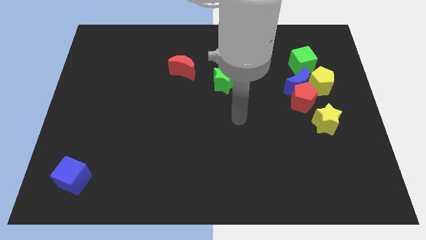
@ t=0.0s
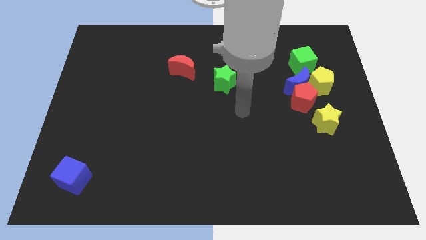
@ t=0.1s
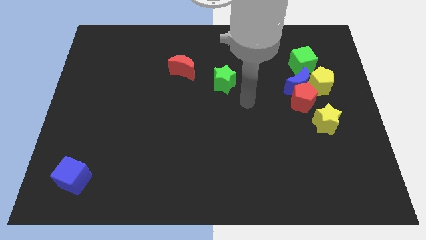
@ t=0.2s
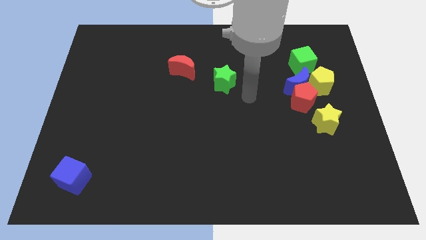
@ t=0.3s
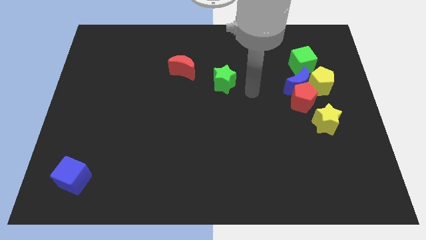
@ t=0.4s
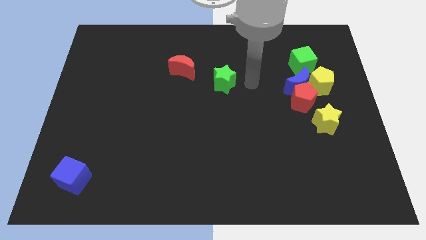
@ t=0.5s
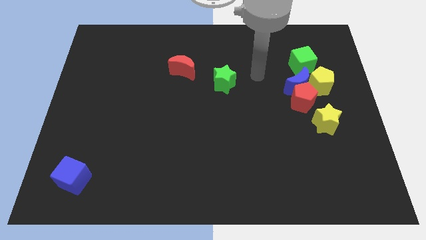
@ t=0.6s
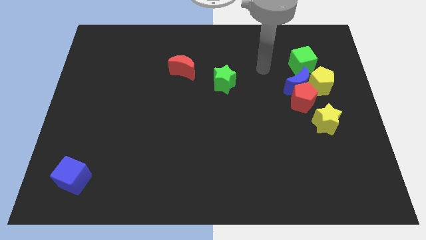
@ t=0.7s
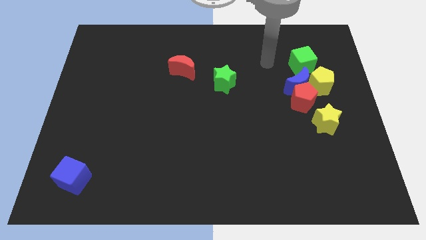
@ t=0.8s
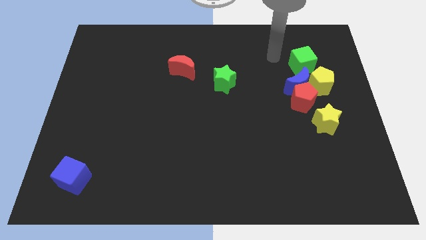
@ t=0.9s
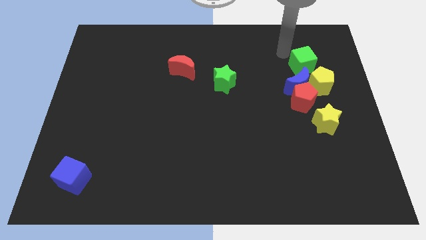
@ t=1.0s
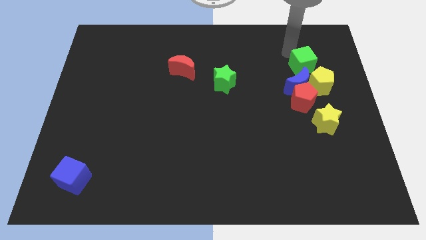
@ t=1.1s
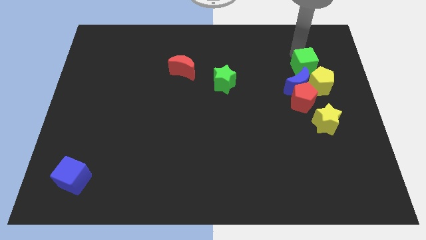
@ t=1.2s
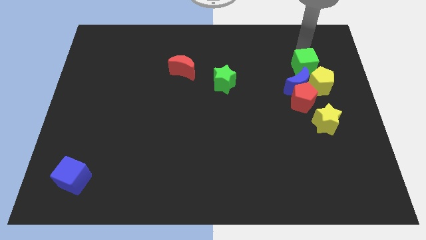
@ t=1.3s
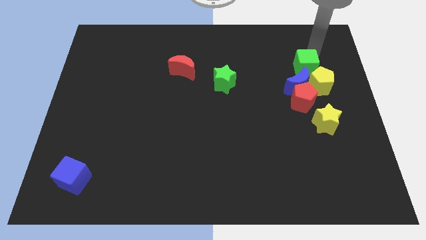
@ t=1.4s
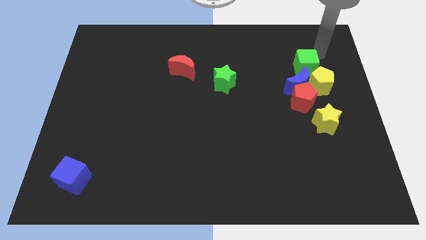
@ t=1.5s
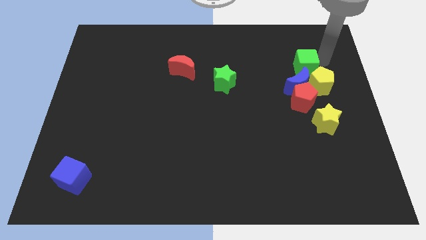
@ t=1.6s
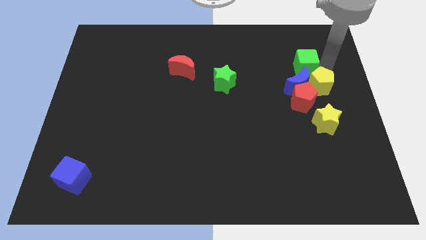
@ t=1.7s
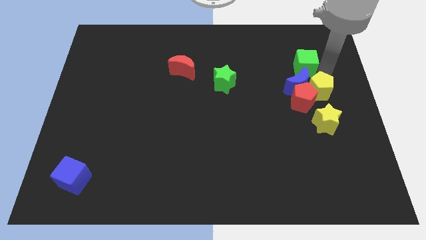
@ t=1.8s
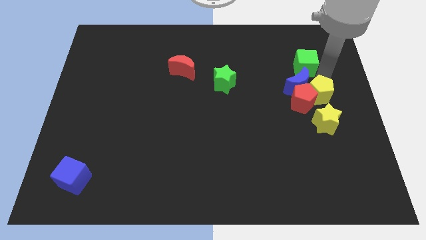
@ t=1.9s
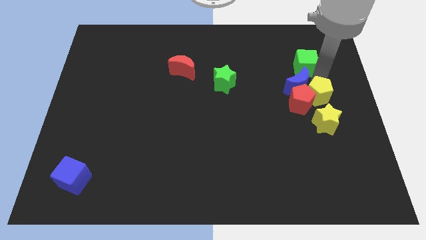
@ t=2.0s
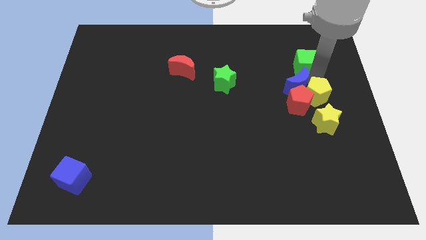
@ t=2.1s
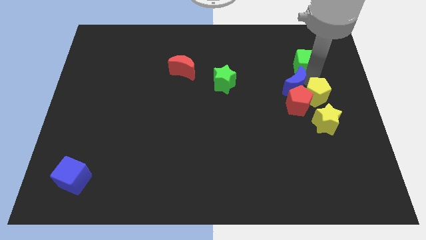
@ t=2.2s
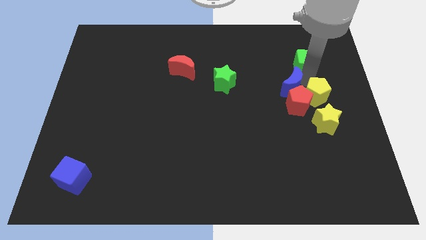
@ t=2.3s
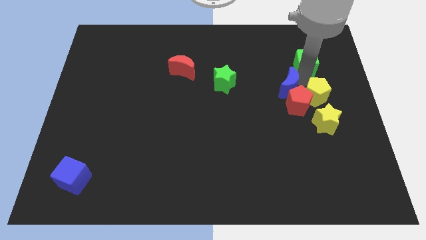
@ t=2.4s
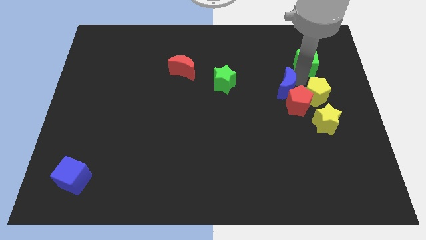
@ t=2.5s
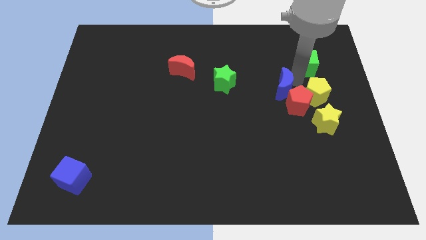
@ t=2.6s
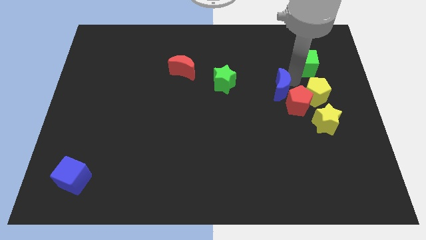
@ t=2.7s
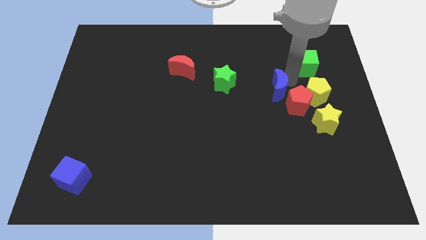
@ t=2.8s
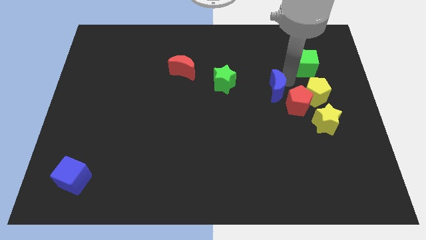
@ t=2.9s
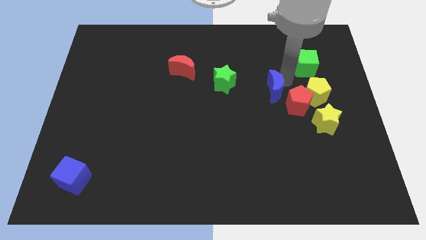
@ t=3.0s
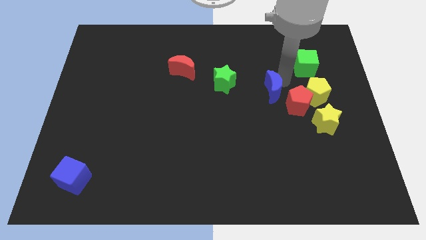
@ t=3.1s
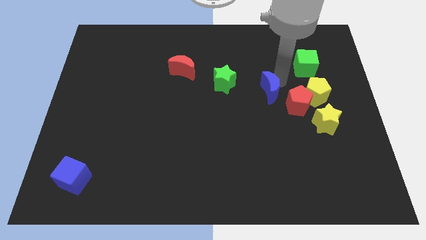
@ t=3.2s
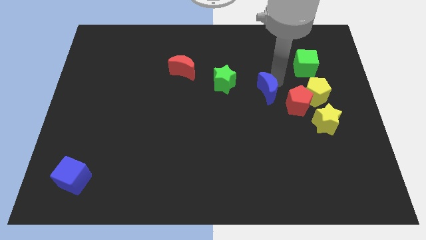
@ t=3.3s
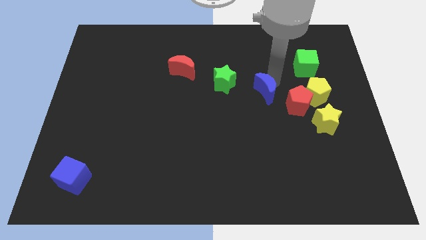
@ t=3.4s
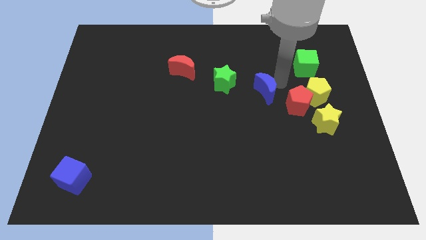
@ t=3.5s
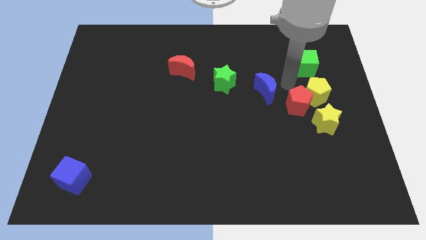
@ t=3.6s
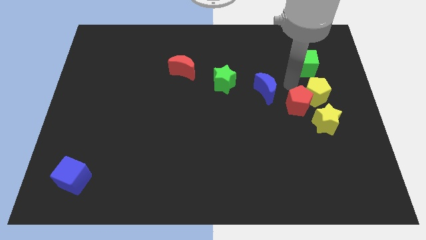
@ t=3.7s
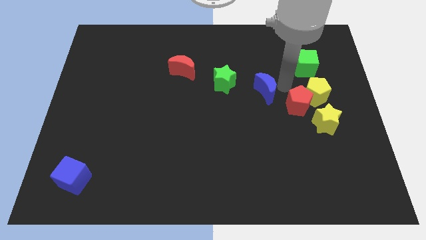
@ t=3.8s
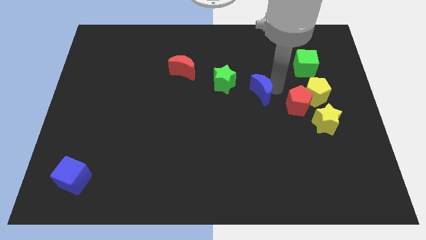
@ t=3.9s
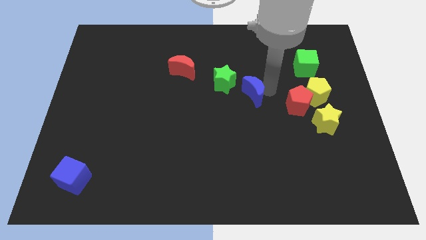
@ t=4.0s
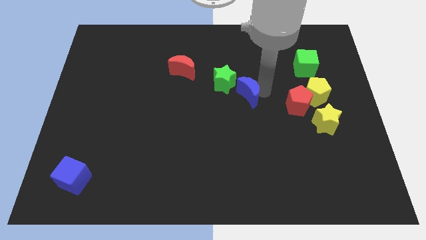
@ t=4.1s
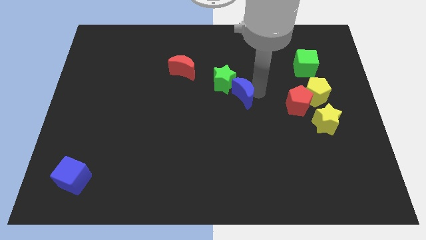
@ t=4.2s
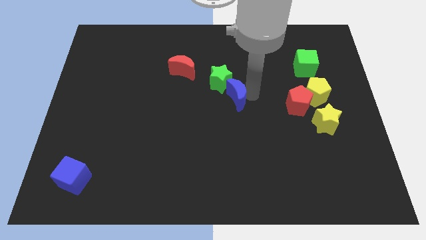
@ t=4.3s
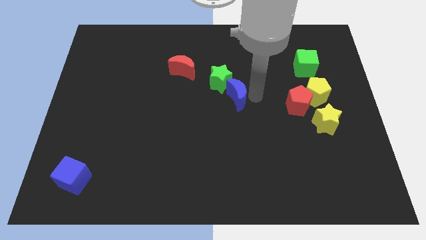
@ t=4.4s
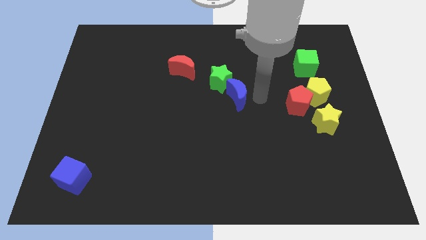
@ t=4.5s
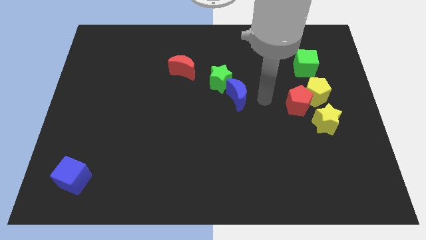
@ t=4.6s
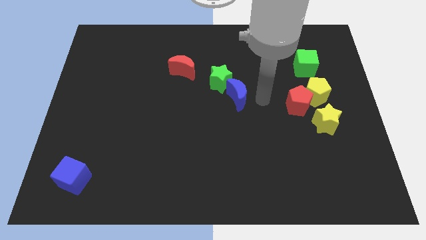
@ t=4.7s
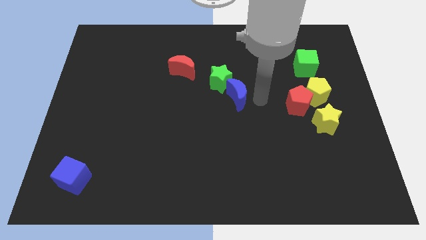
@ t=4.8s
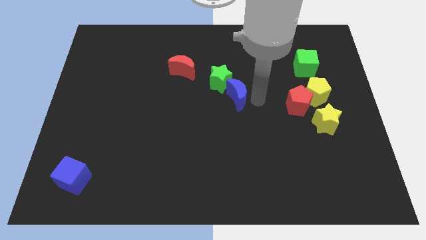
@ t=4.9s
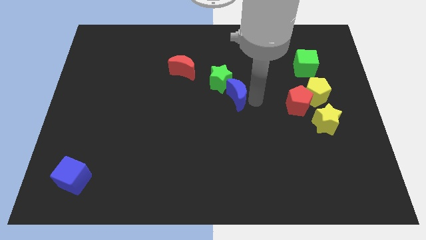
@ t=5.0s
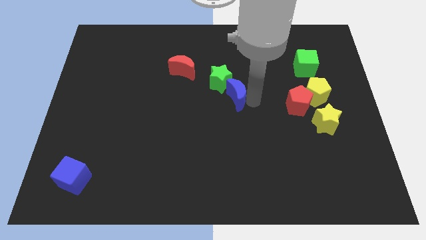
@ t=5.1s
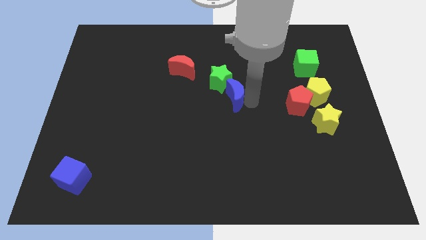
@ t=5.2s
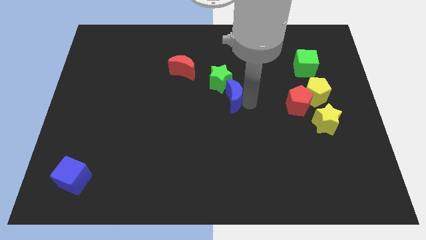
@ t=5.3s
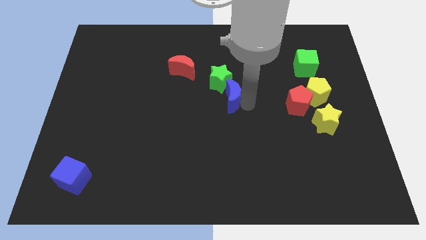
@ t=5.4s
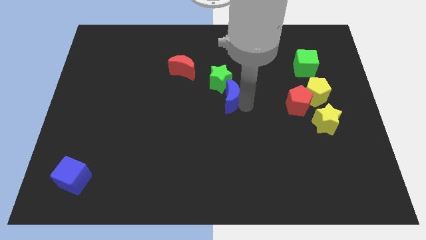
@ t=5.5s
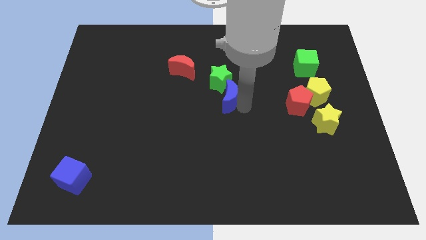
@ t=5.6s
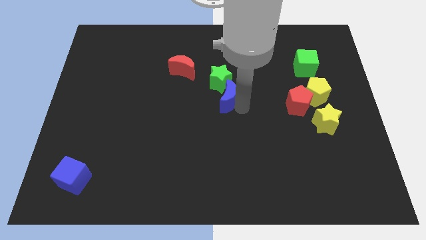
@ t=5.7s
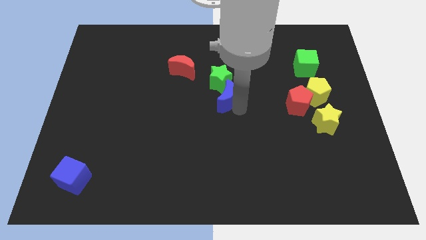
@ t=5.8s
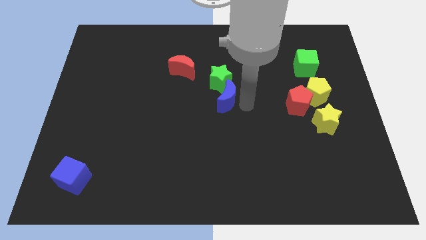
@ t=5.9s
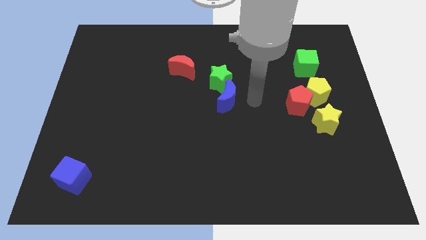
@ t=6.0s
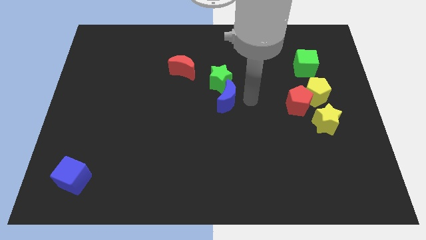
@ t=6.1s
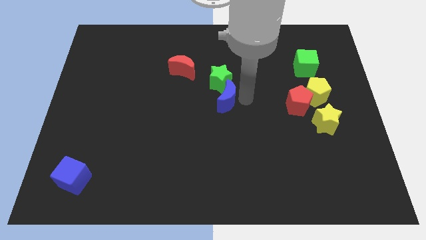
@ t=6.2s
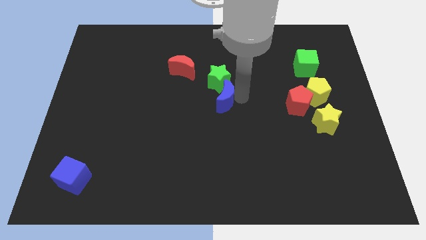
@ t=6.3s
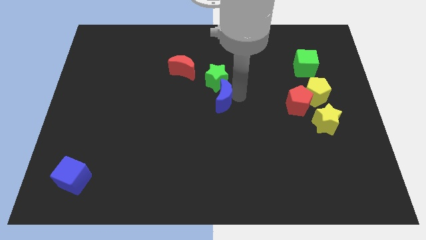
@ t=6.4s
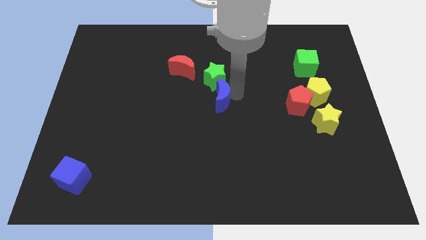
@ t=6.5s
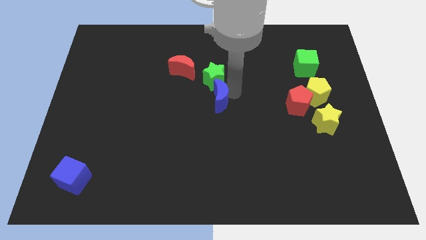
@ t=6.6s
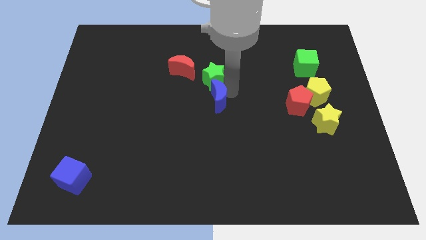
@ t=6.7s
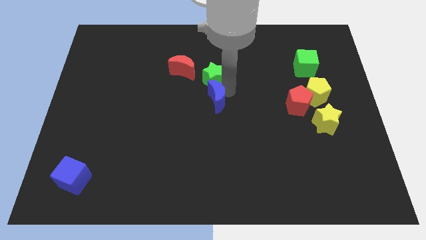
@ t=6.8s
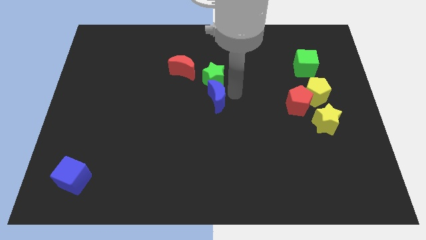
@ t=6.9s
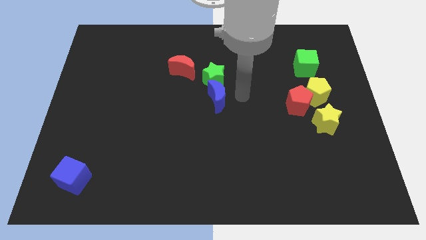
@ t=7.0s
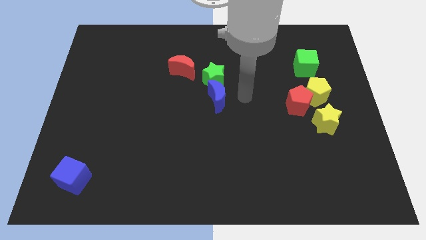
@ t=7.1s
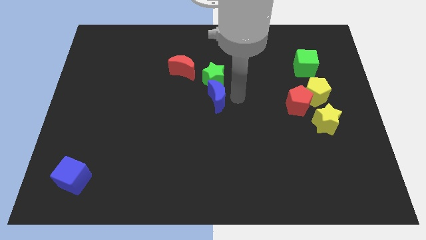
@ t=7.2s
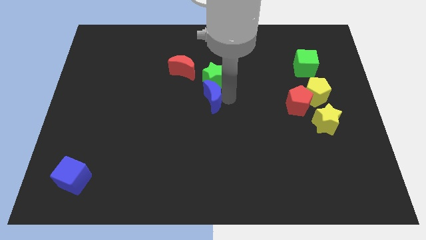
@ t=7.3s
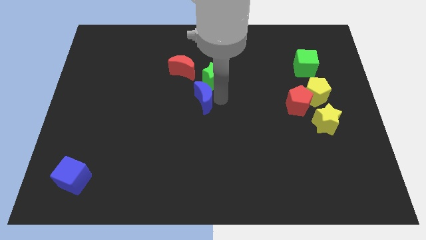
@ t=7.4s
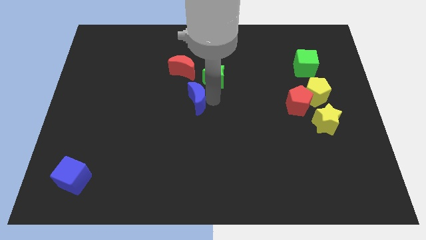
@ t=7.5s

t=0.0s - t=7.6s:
move the blue moon below the red moon

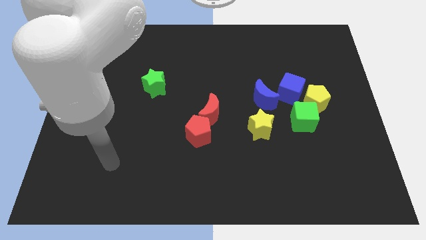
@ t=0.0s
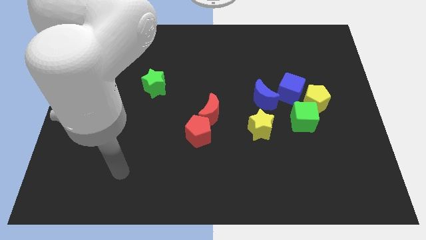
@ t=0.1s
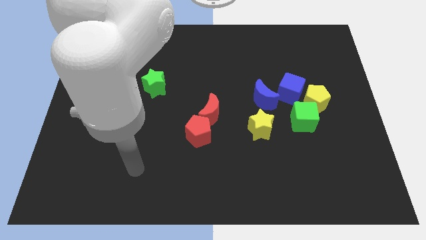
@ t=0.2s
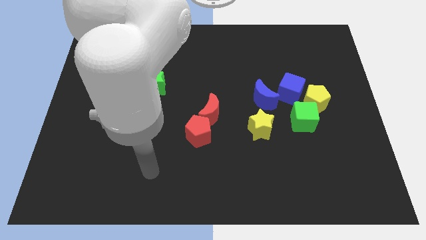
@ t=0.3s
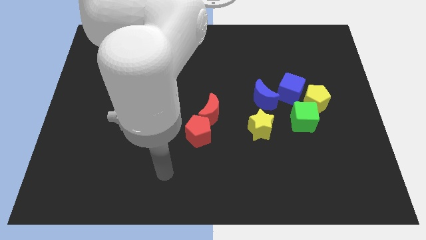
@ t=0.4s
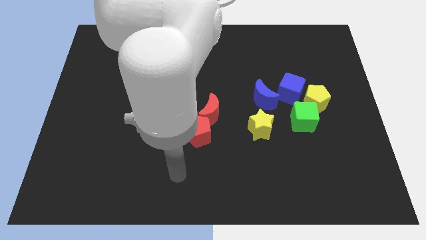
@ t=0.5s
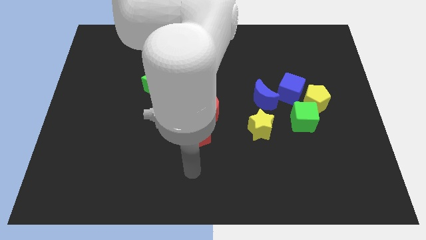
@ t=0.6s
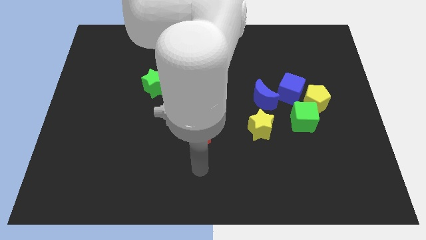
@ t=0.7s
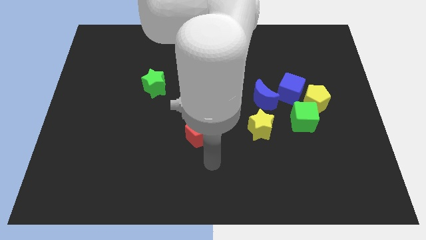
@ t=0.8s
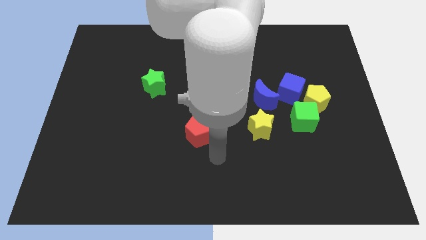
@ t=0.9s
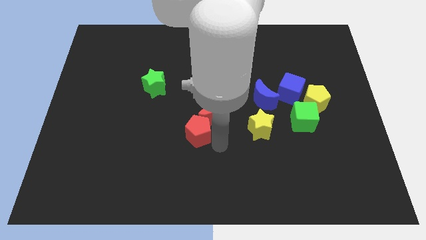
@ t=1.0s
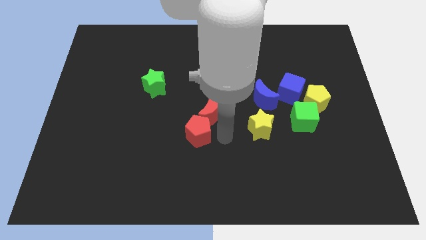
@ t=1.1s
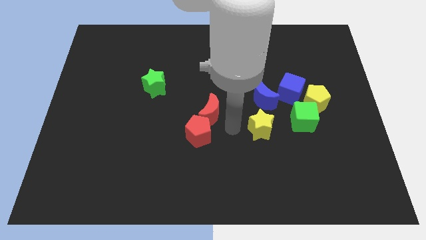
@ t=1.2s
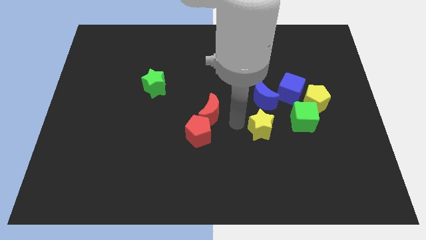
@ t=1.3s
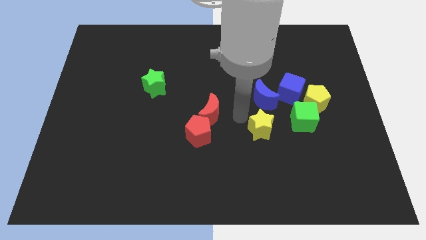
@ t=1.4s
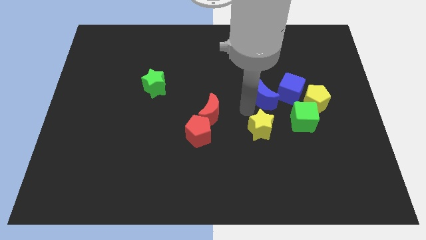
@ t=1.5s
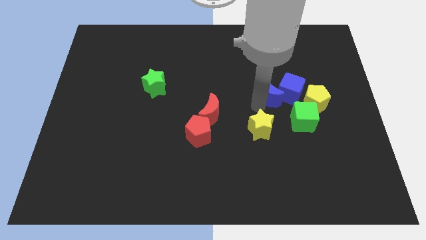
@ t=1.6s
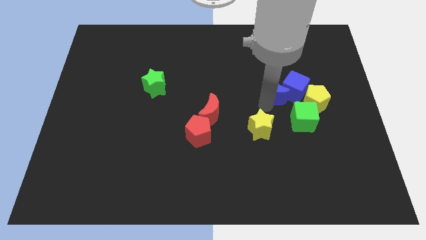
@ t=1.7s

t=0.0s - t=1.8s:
slide the blue cube above the yellow pentagon
